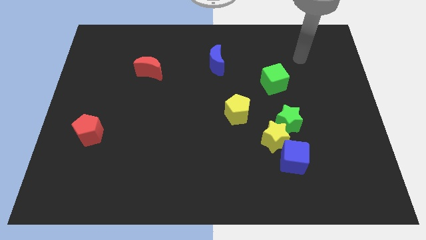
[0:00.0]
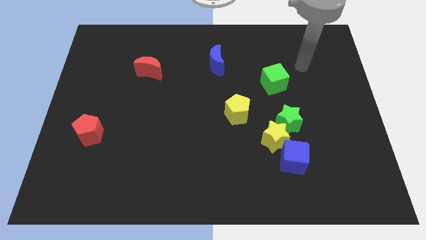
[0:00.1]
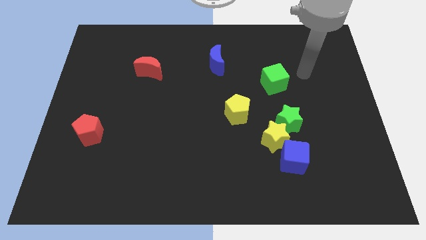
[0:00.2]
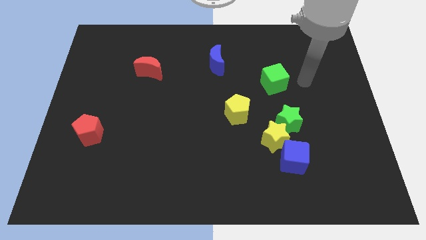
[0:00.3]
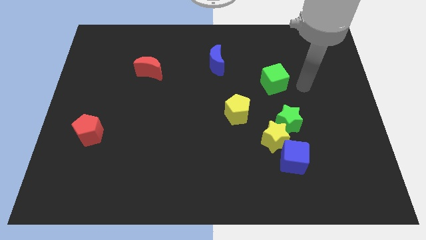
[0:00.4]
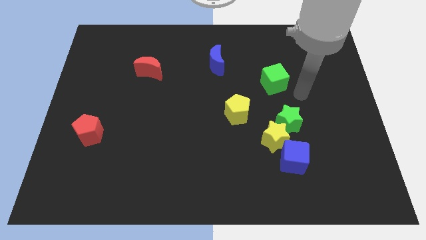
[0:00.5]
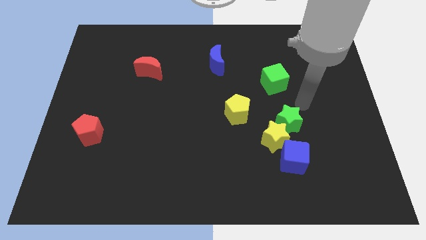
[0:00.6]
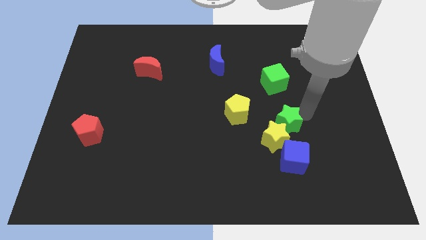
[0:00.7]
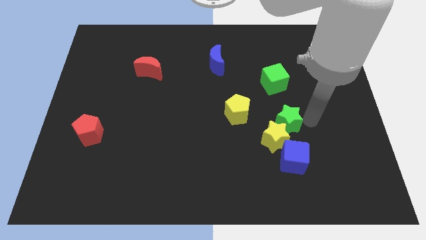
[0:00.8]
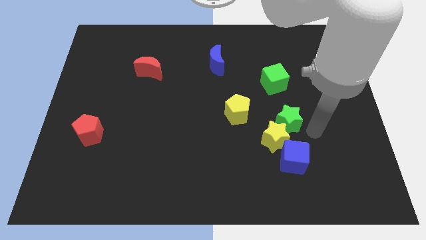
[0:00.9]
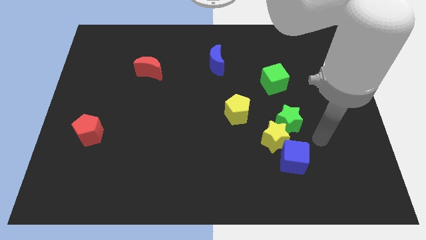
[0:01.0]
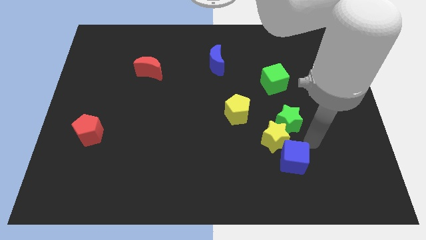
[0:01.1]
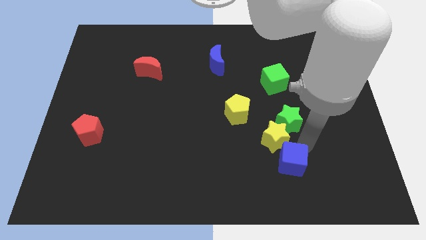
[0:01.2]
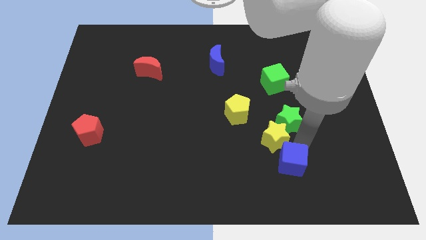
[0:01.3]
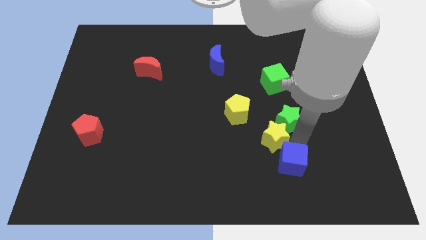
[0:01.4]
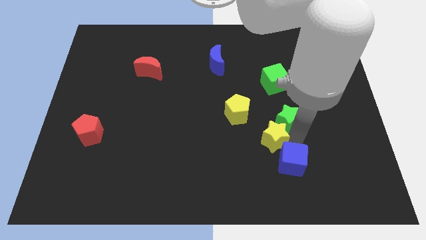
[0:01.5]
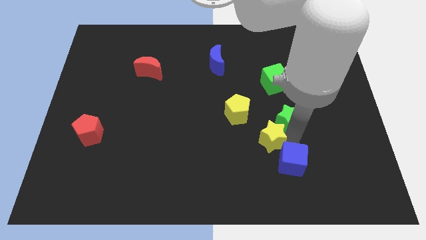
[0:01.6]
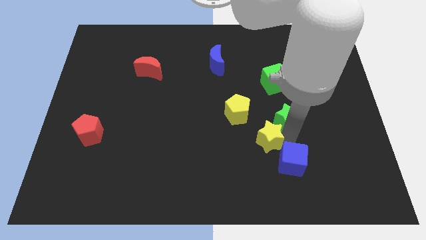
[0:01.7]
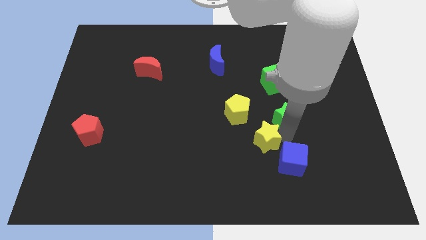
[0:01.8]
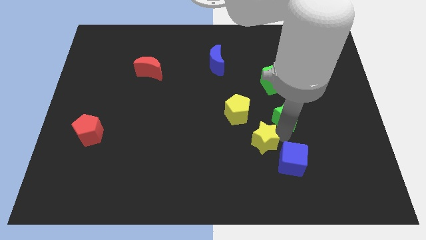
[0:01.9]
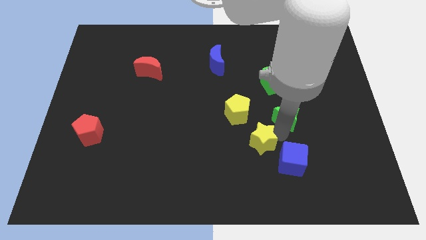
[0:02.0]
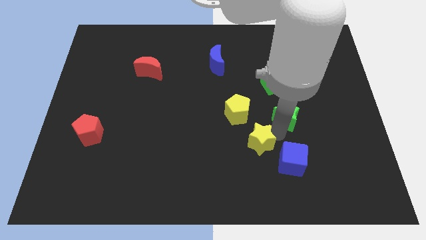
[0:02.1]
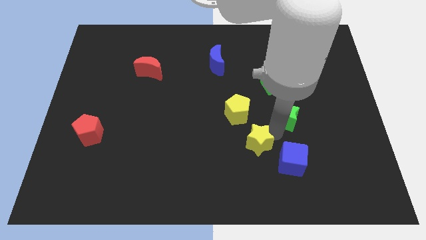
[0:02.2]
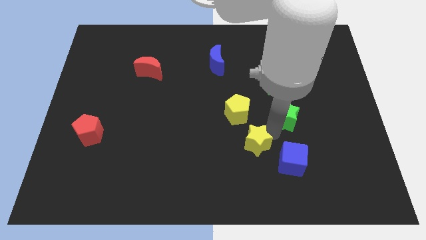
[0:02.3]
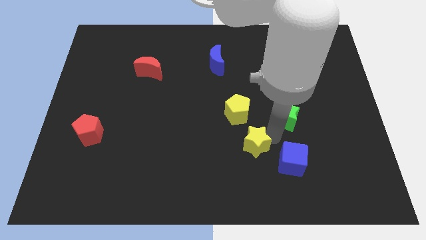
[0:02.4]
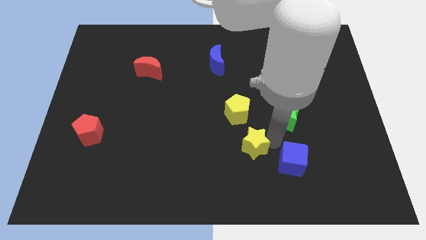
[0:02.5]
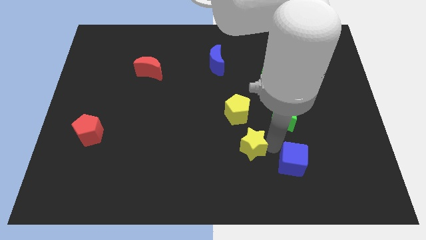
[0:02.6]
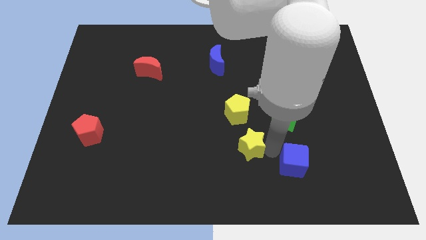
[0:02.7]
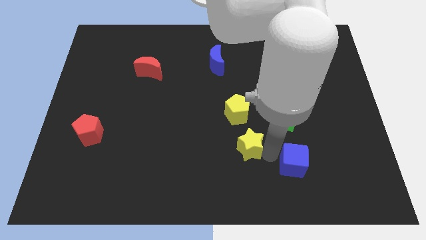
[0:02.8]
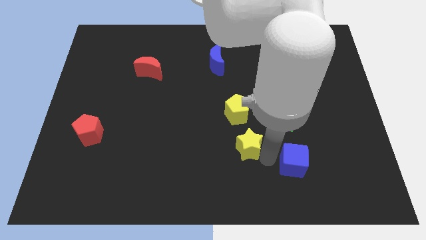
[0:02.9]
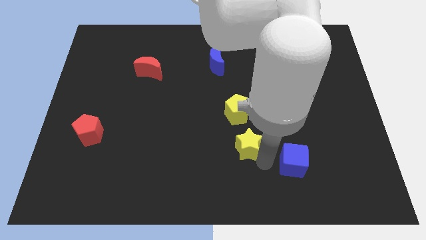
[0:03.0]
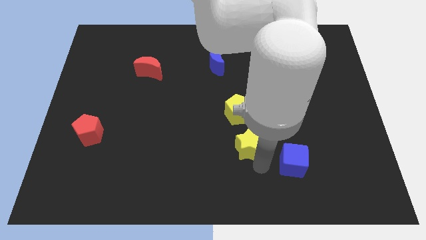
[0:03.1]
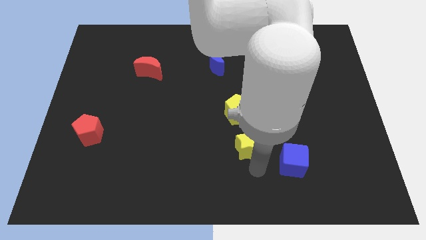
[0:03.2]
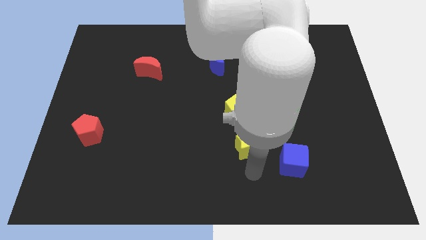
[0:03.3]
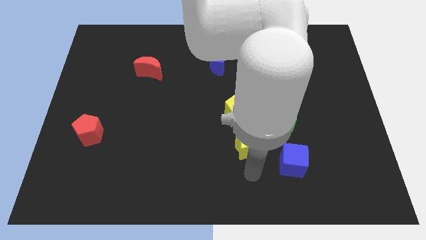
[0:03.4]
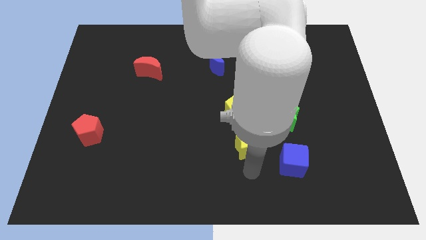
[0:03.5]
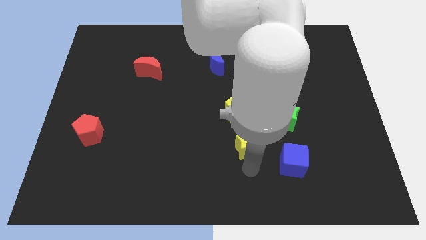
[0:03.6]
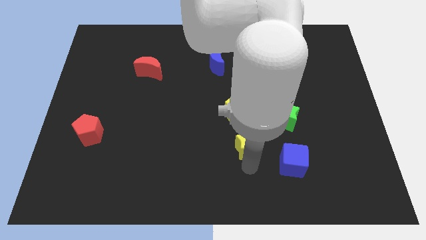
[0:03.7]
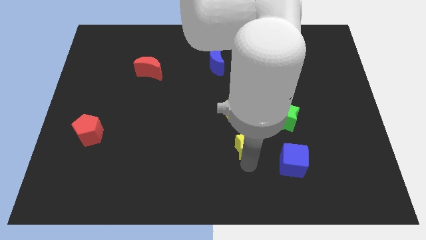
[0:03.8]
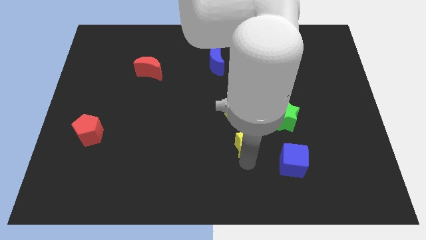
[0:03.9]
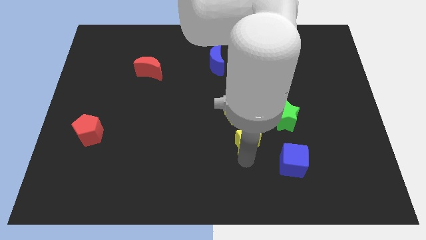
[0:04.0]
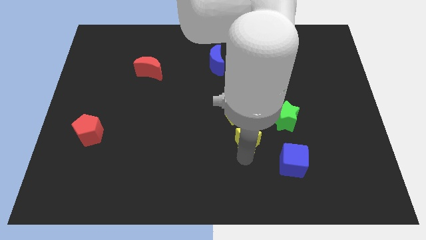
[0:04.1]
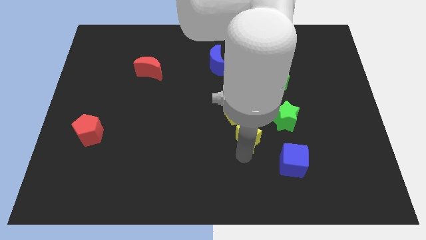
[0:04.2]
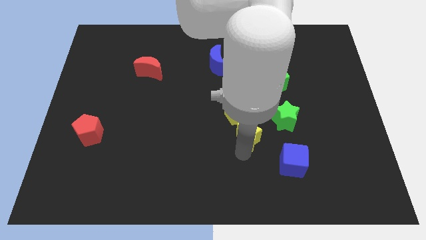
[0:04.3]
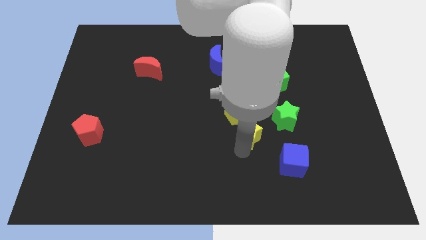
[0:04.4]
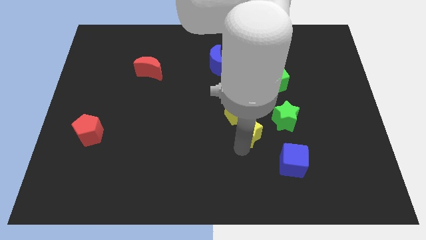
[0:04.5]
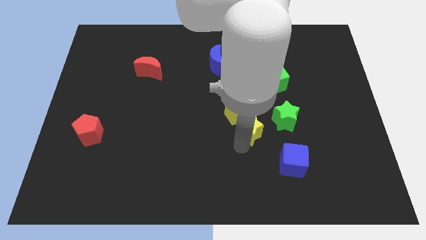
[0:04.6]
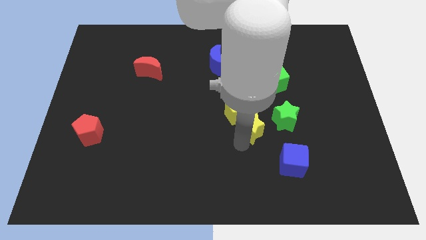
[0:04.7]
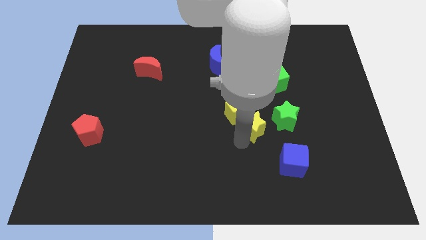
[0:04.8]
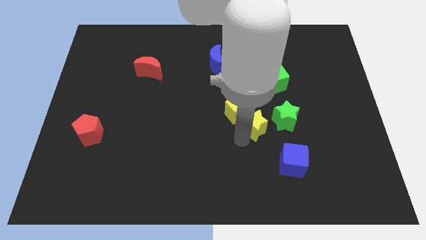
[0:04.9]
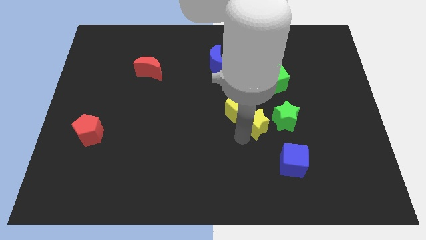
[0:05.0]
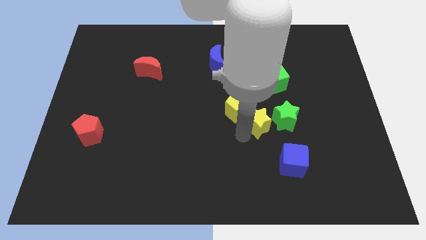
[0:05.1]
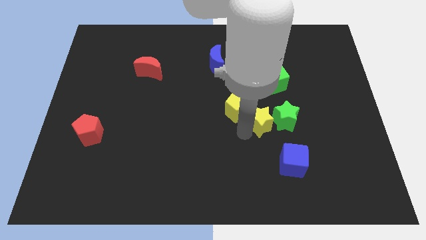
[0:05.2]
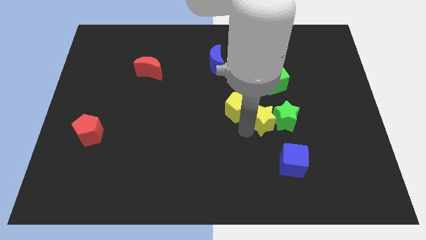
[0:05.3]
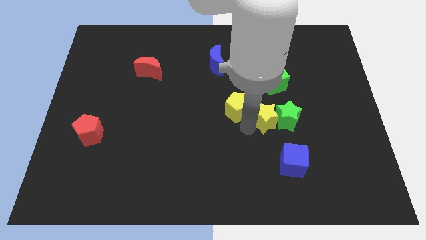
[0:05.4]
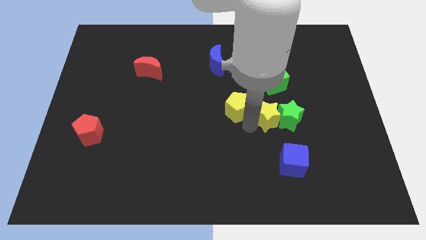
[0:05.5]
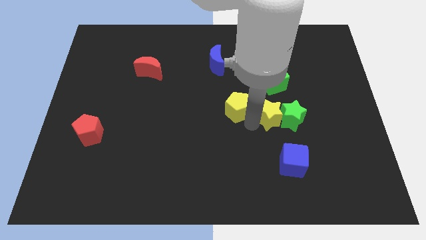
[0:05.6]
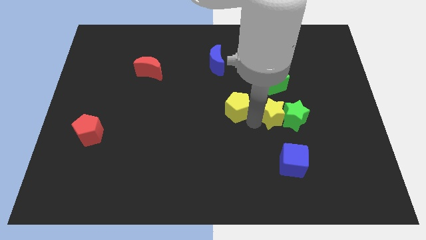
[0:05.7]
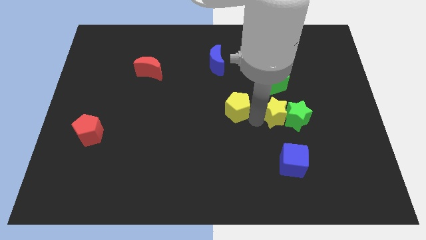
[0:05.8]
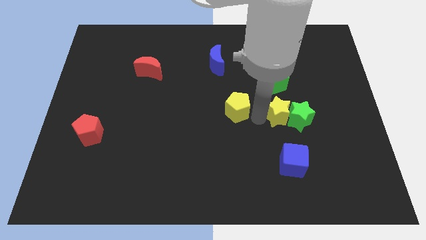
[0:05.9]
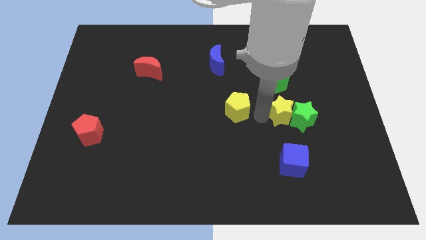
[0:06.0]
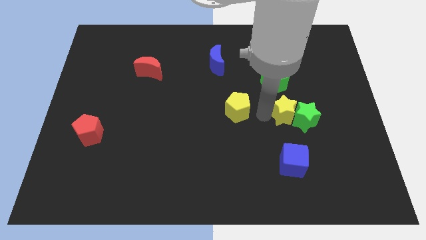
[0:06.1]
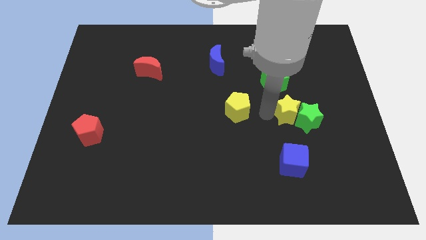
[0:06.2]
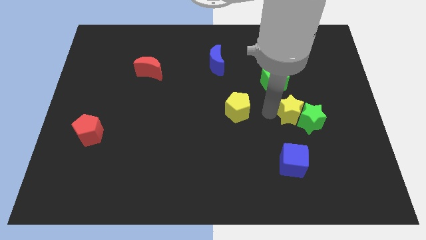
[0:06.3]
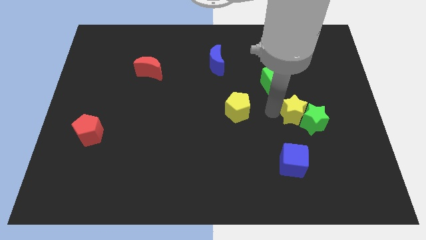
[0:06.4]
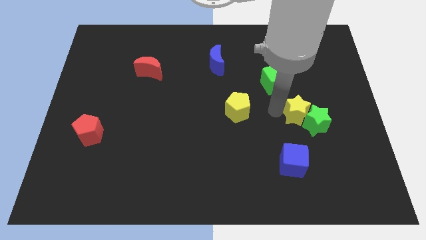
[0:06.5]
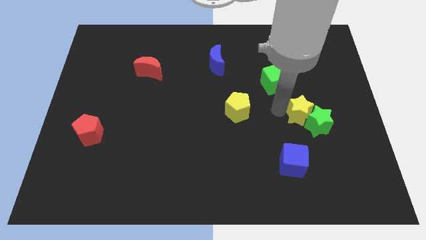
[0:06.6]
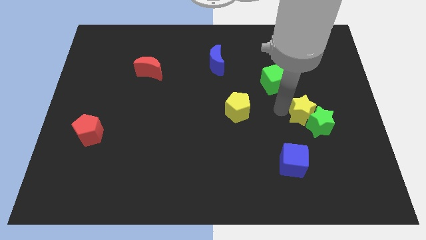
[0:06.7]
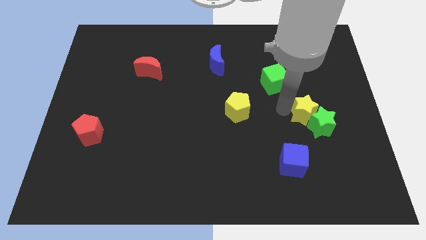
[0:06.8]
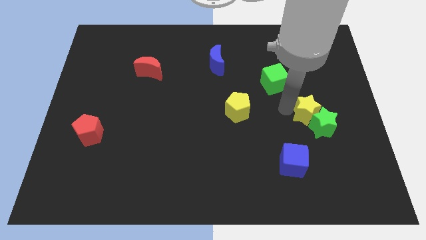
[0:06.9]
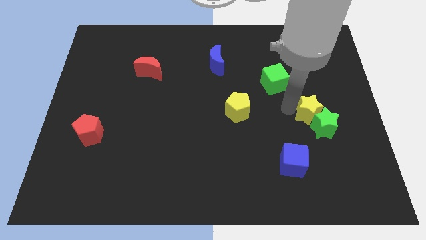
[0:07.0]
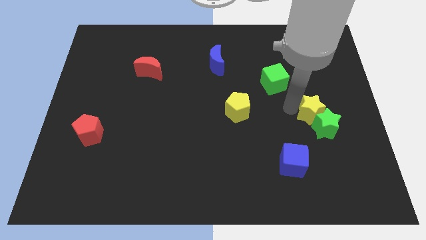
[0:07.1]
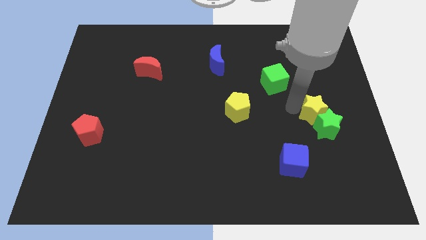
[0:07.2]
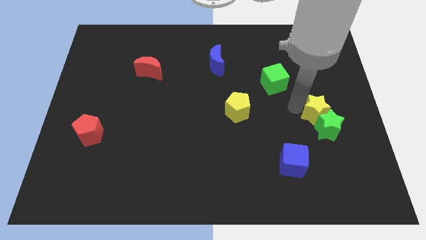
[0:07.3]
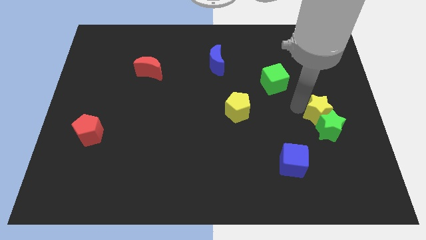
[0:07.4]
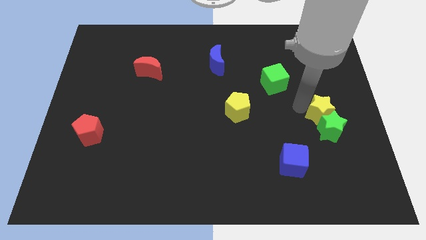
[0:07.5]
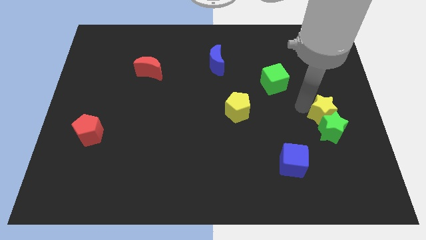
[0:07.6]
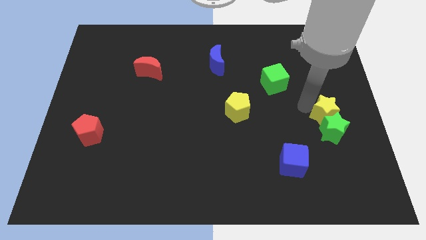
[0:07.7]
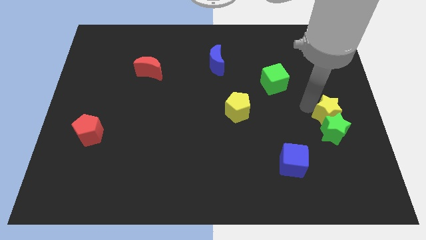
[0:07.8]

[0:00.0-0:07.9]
move the yellow star away from the green star and blue cube

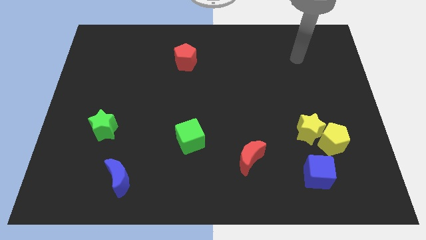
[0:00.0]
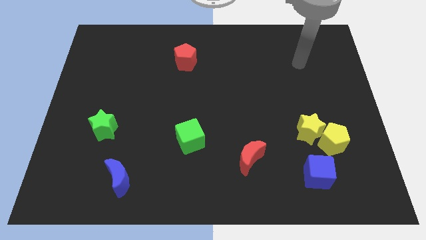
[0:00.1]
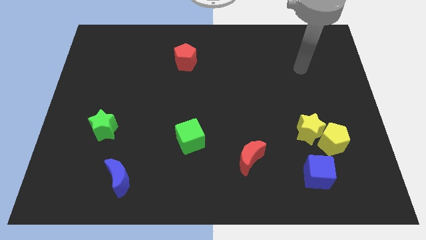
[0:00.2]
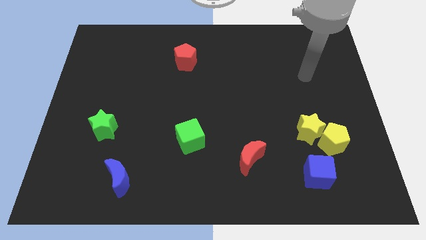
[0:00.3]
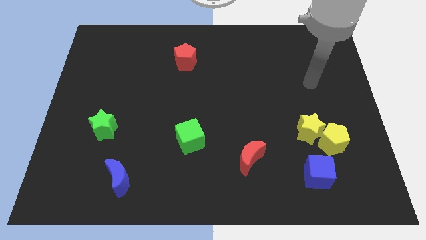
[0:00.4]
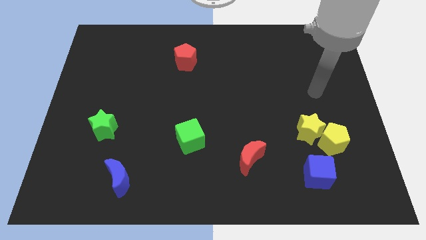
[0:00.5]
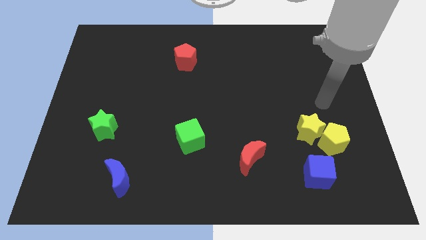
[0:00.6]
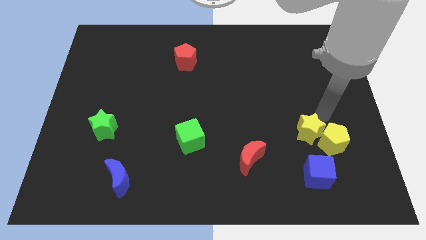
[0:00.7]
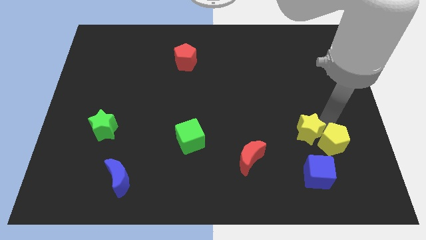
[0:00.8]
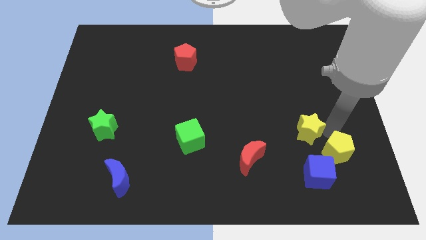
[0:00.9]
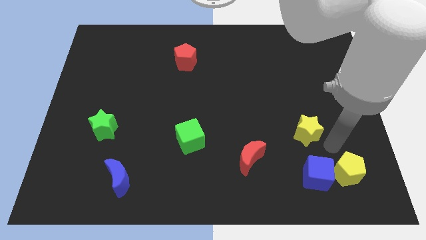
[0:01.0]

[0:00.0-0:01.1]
separate the yellow star from the yellow pentagon

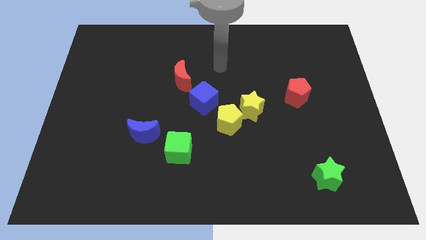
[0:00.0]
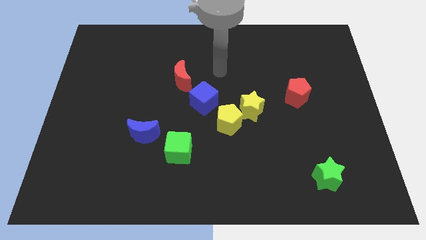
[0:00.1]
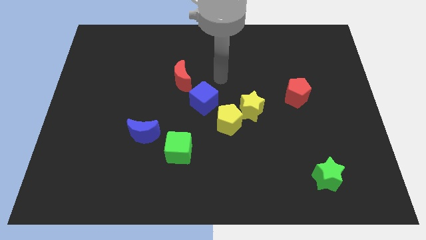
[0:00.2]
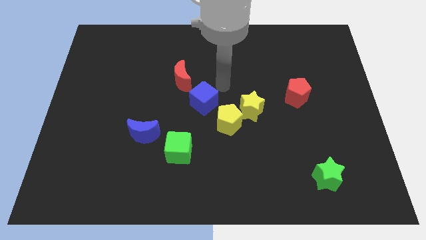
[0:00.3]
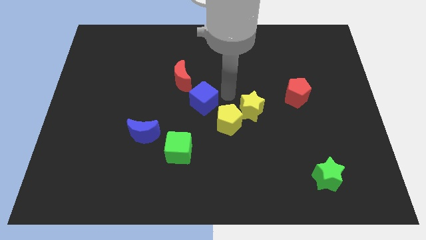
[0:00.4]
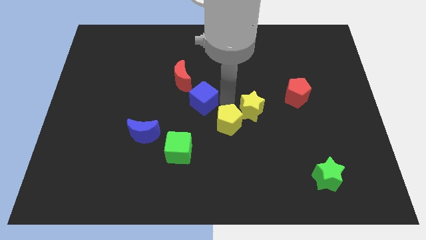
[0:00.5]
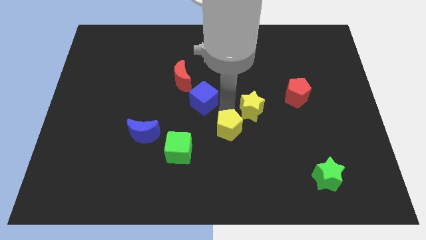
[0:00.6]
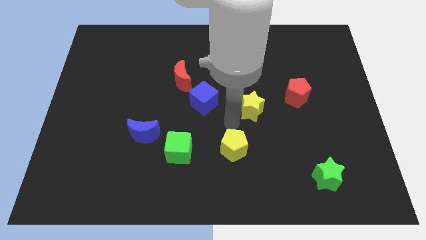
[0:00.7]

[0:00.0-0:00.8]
pull the yellow star apart from the yellow pentagon
